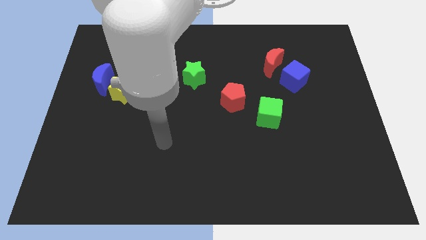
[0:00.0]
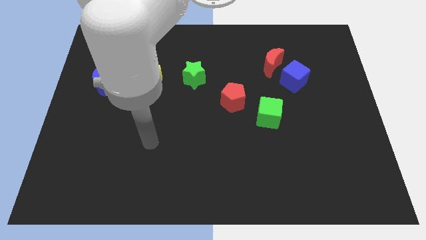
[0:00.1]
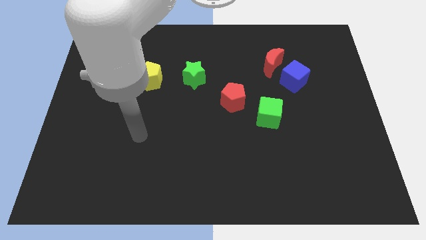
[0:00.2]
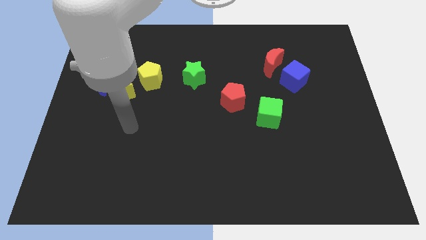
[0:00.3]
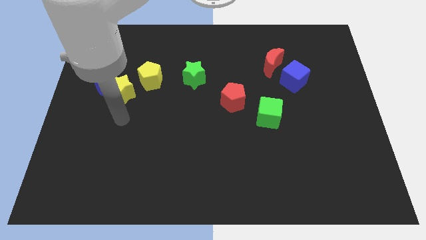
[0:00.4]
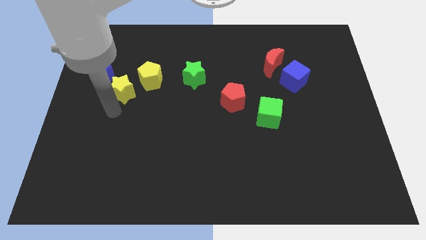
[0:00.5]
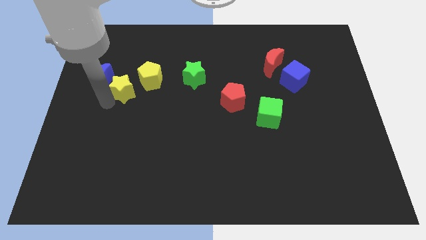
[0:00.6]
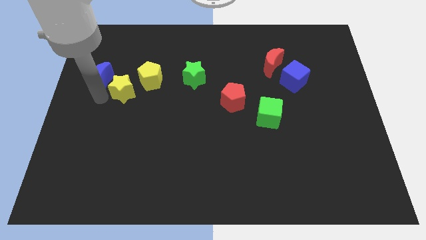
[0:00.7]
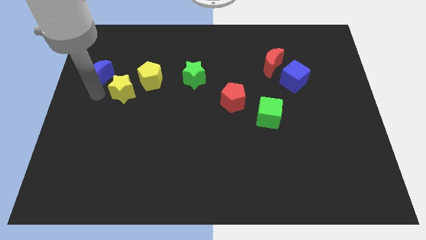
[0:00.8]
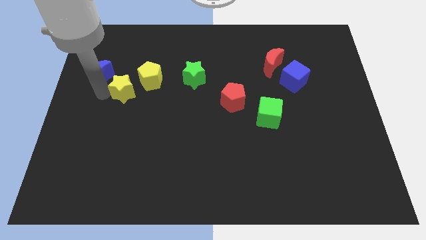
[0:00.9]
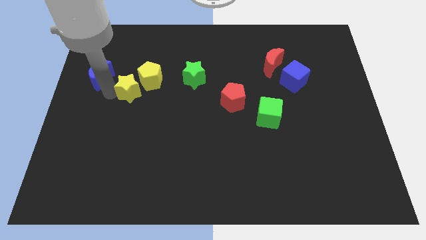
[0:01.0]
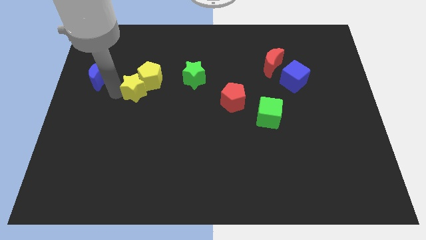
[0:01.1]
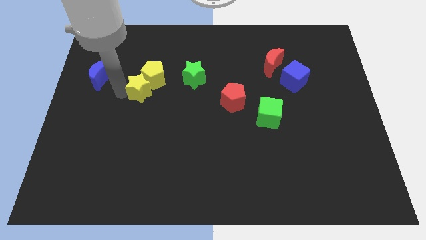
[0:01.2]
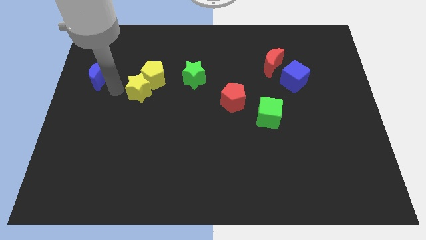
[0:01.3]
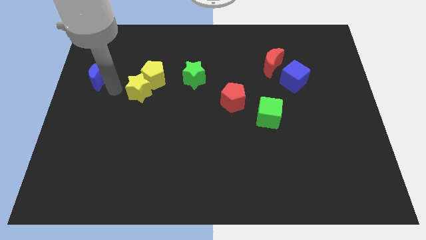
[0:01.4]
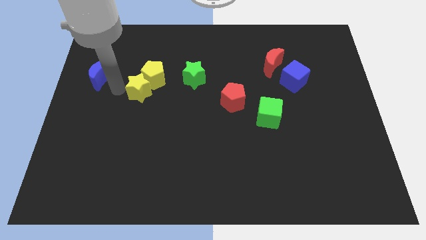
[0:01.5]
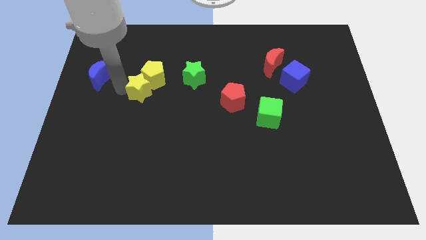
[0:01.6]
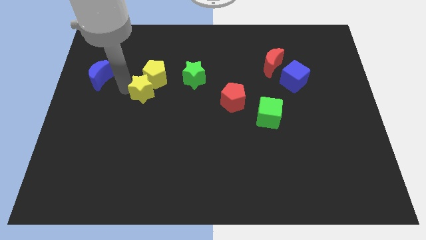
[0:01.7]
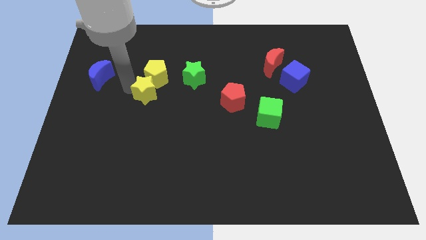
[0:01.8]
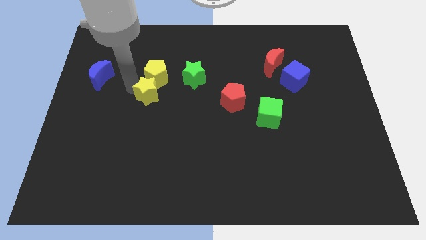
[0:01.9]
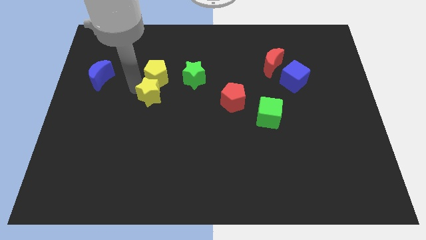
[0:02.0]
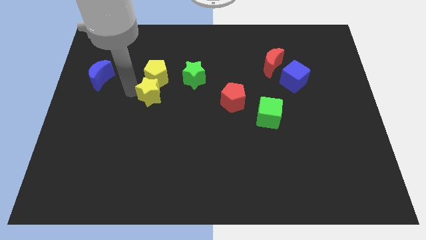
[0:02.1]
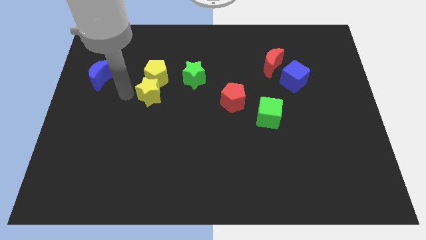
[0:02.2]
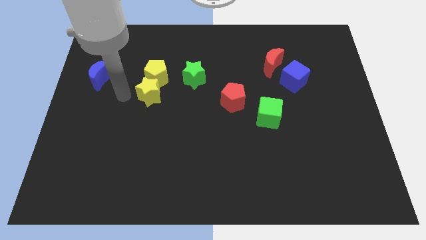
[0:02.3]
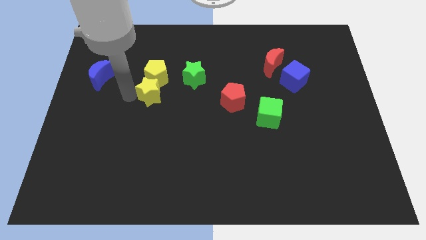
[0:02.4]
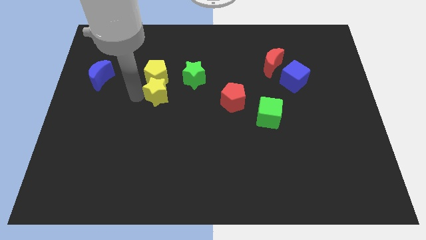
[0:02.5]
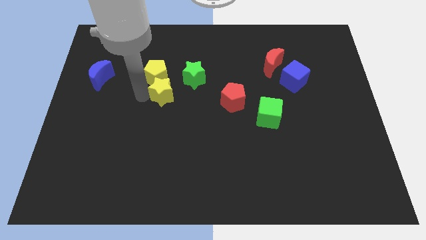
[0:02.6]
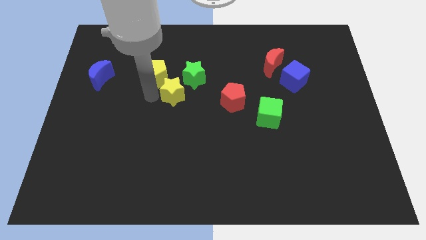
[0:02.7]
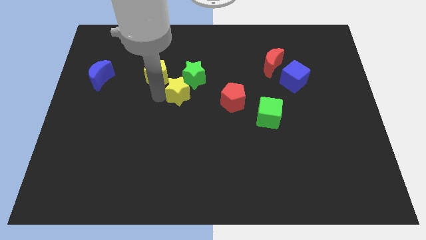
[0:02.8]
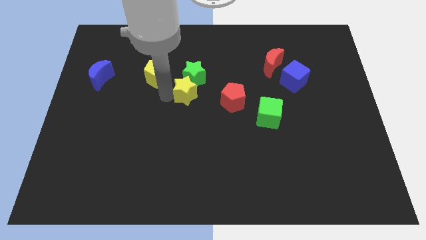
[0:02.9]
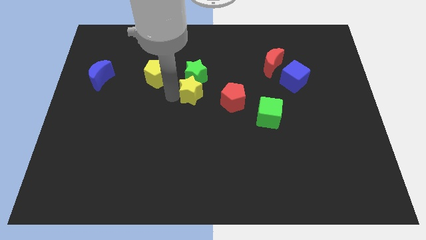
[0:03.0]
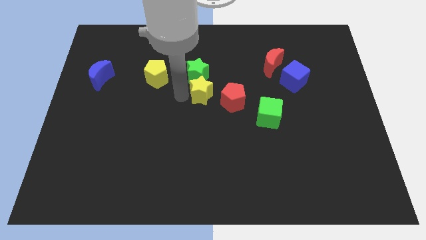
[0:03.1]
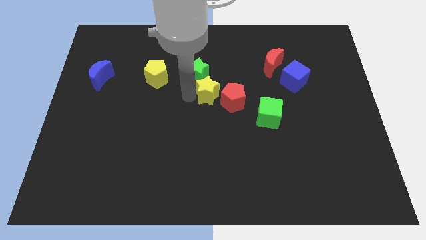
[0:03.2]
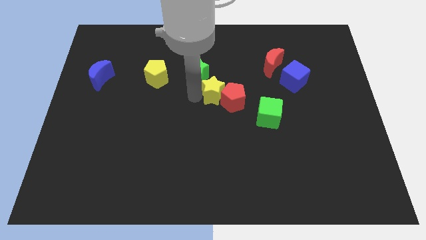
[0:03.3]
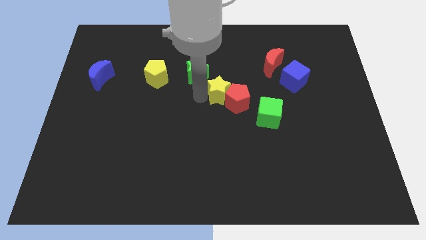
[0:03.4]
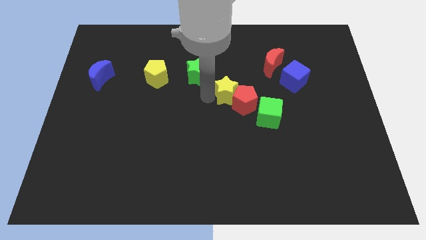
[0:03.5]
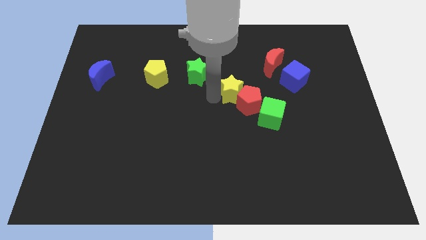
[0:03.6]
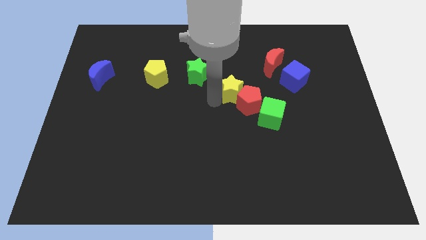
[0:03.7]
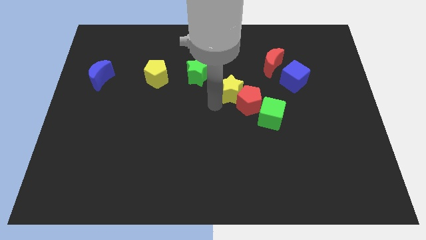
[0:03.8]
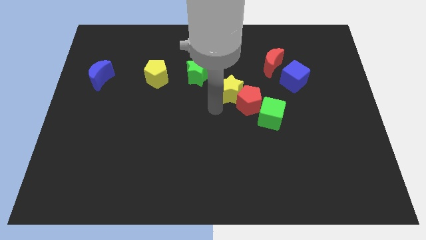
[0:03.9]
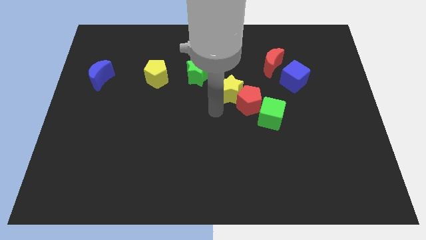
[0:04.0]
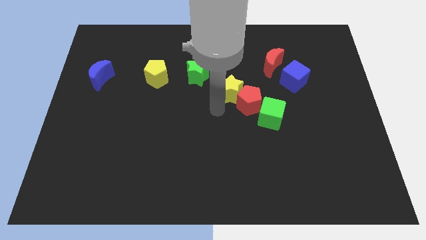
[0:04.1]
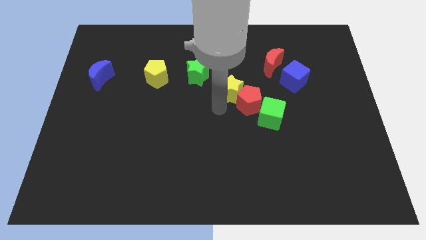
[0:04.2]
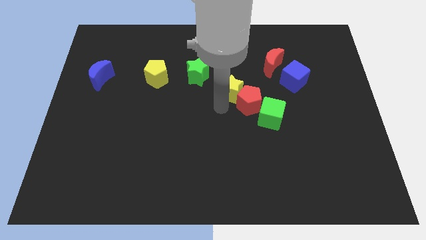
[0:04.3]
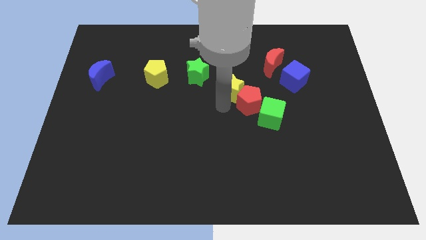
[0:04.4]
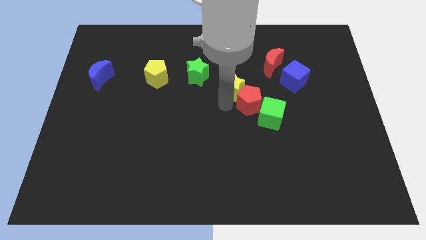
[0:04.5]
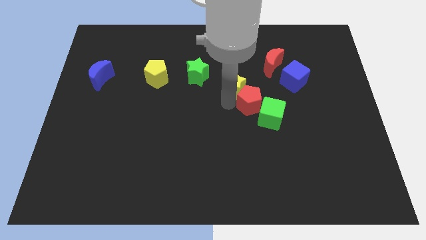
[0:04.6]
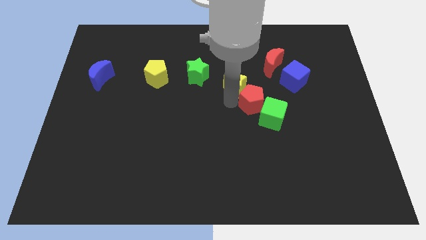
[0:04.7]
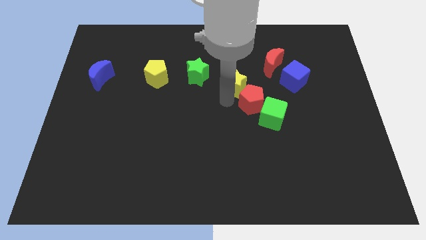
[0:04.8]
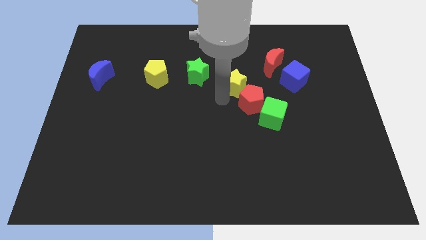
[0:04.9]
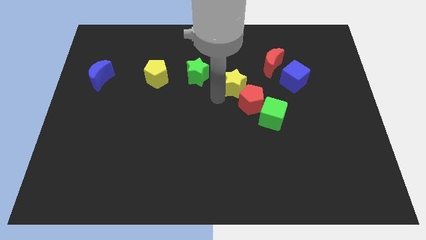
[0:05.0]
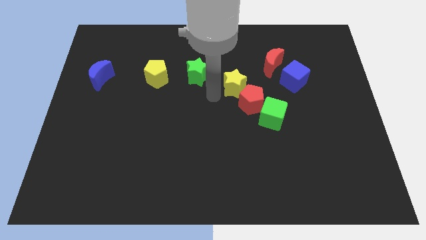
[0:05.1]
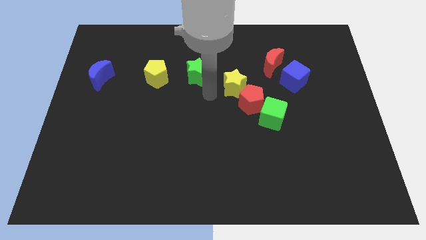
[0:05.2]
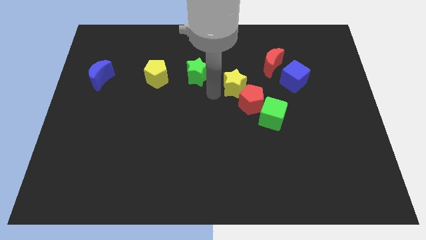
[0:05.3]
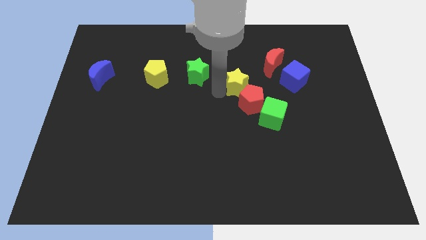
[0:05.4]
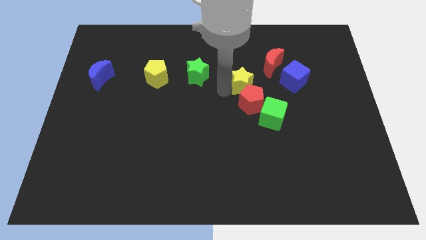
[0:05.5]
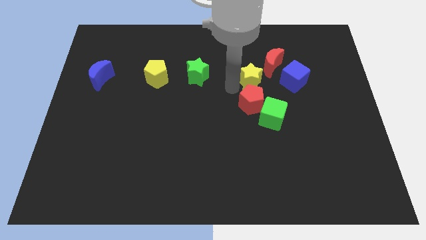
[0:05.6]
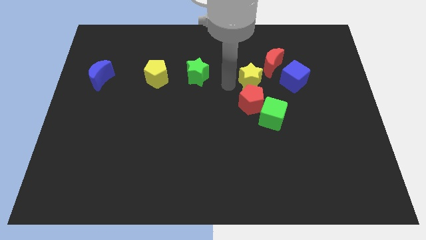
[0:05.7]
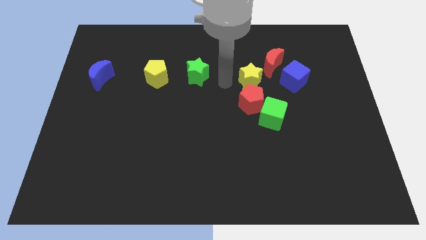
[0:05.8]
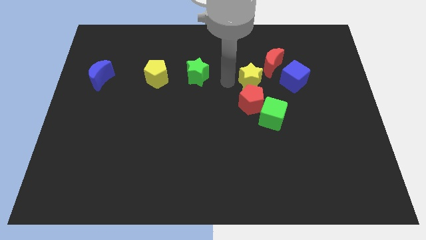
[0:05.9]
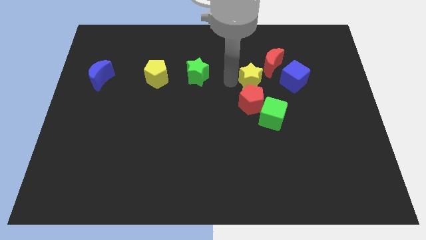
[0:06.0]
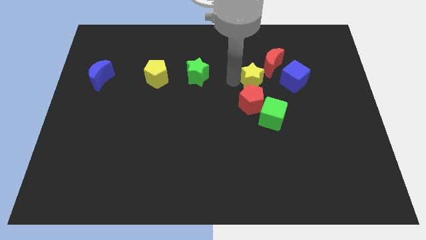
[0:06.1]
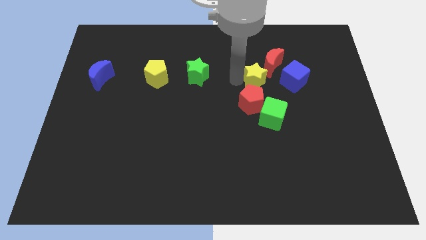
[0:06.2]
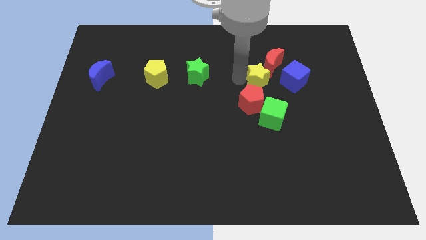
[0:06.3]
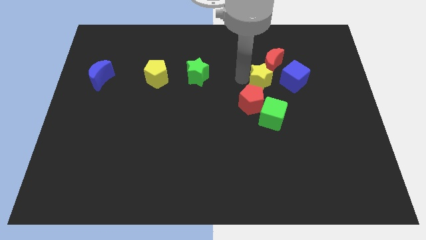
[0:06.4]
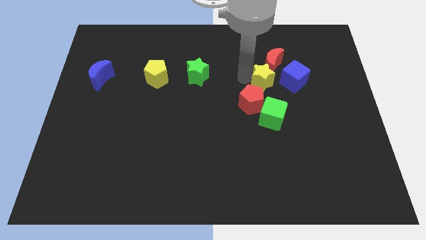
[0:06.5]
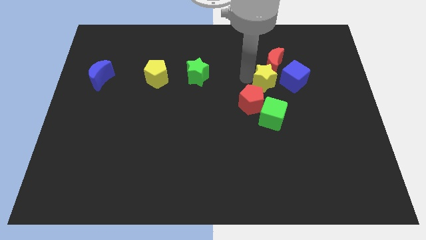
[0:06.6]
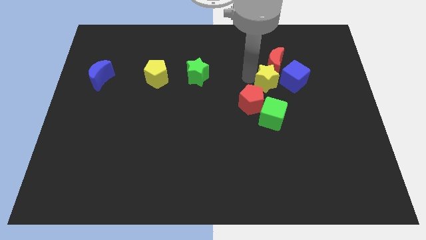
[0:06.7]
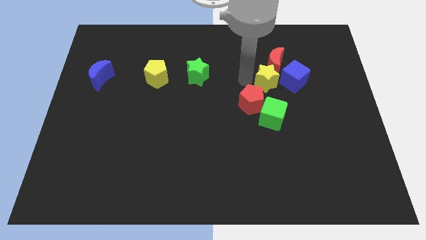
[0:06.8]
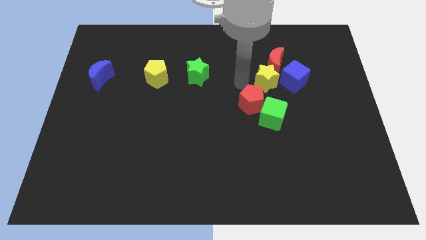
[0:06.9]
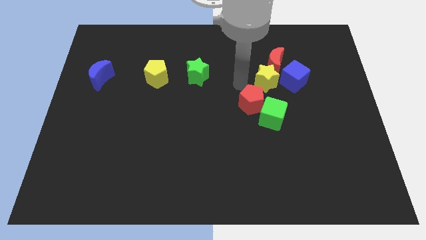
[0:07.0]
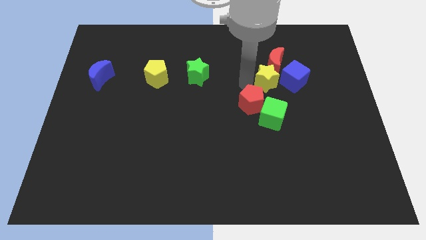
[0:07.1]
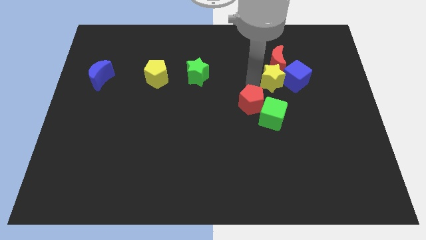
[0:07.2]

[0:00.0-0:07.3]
put the yellow star close to the blue cube
